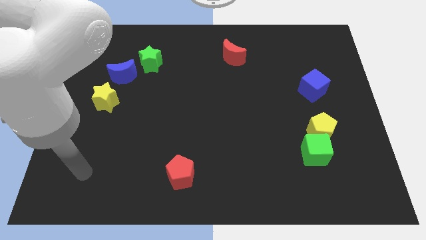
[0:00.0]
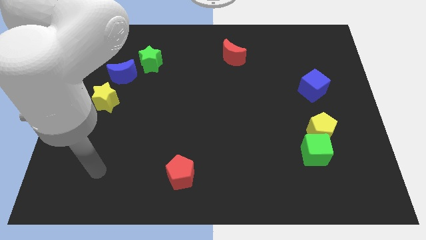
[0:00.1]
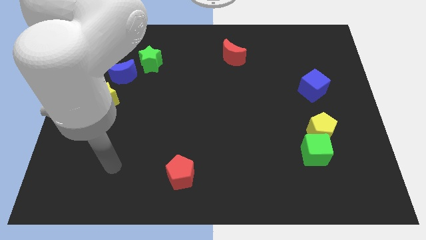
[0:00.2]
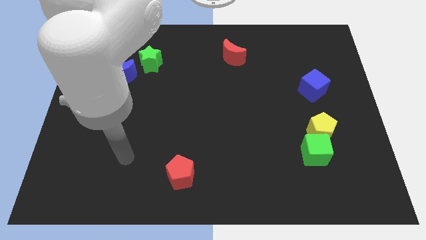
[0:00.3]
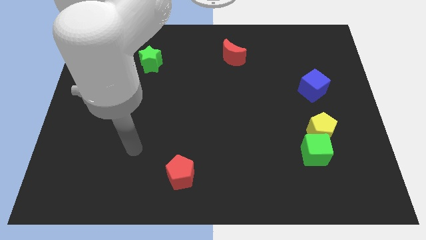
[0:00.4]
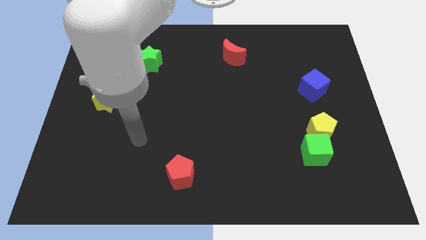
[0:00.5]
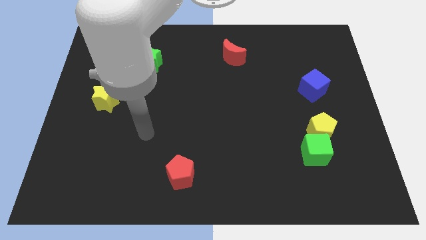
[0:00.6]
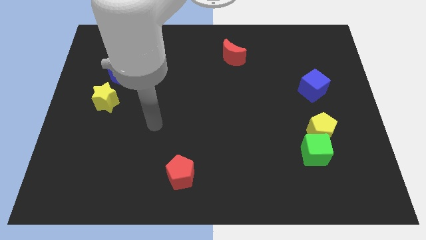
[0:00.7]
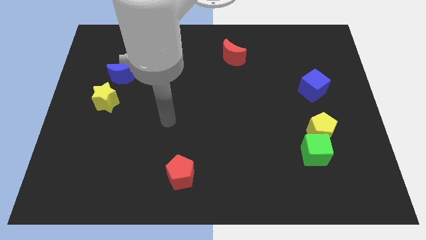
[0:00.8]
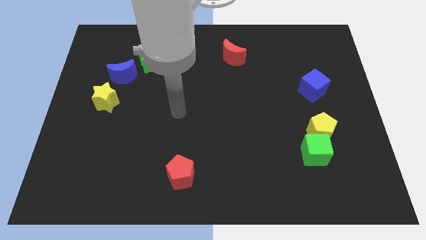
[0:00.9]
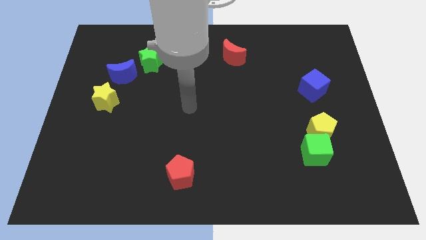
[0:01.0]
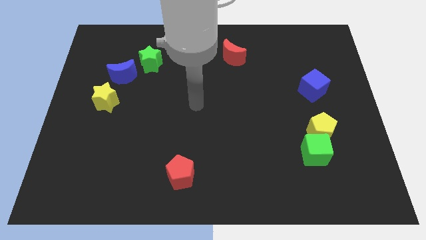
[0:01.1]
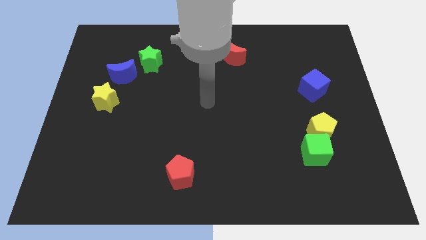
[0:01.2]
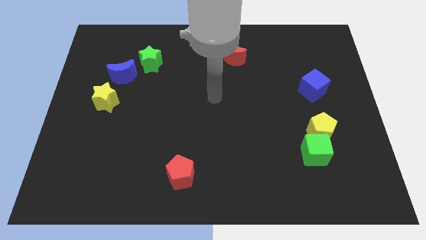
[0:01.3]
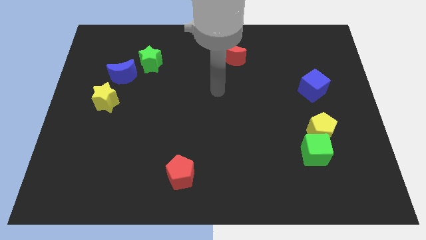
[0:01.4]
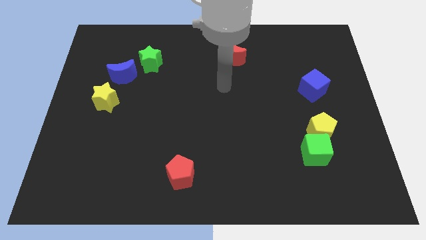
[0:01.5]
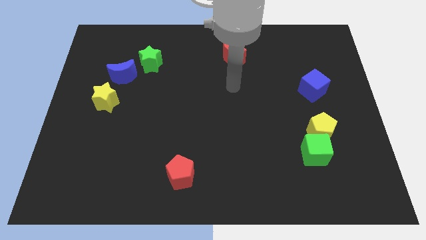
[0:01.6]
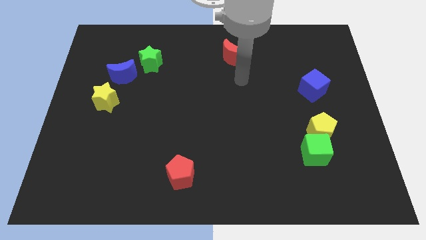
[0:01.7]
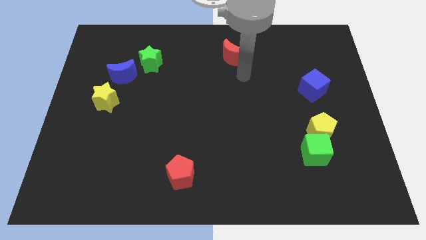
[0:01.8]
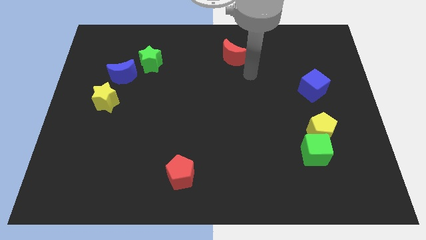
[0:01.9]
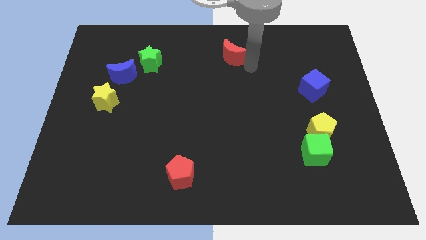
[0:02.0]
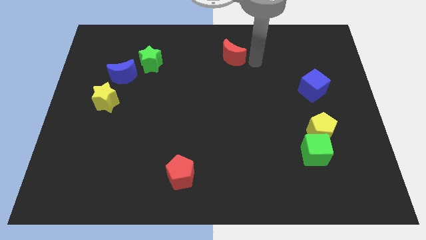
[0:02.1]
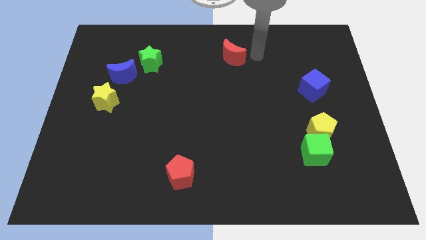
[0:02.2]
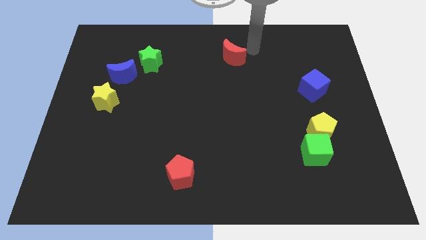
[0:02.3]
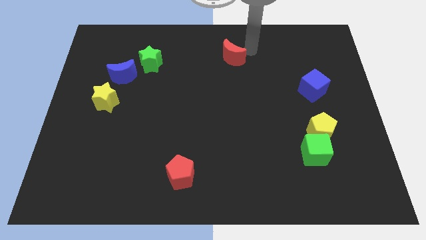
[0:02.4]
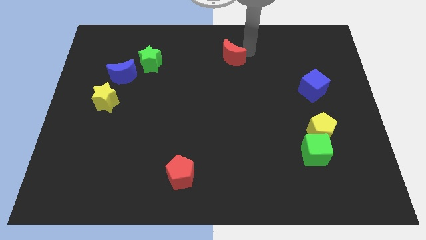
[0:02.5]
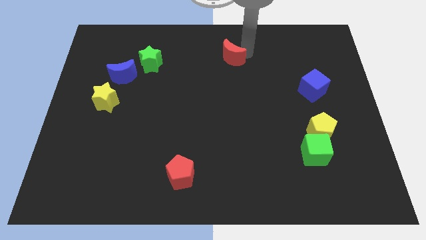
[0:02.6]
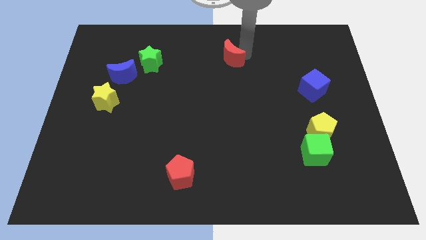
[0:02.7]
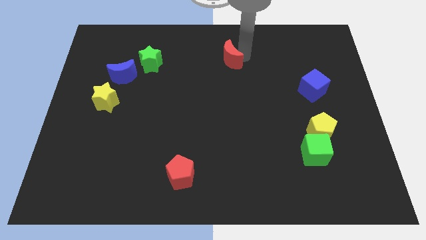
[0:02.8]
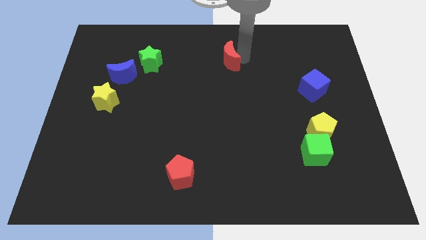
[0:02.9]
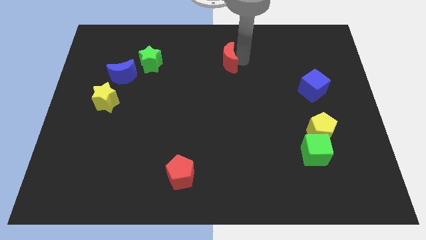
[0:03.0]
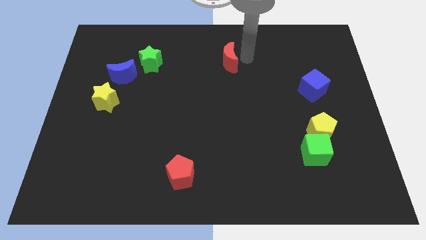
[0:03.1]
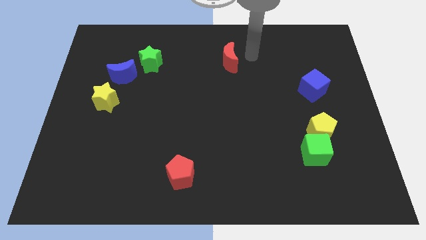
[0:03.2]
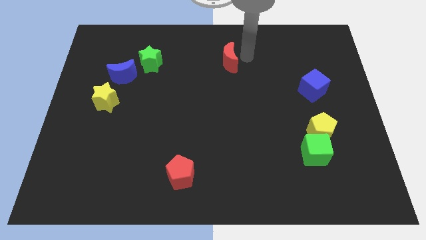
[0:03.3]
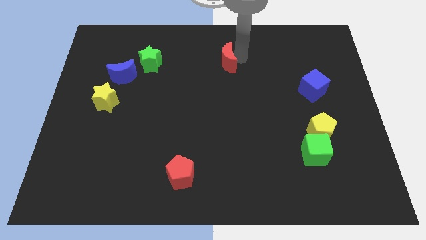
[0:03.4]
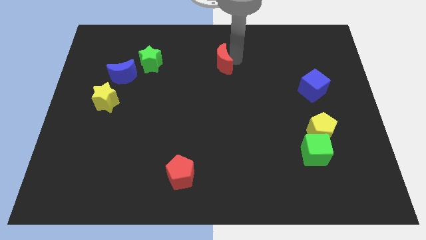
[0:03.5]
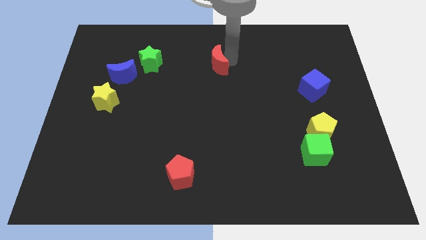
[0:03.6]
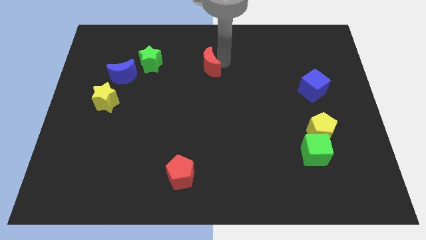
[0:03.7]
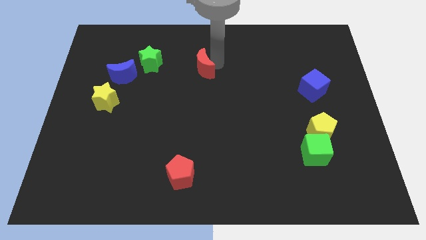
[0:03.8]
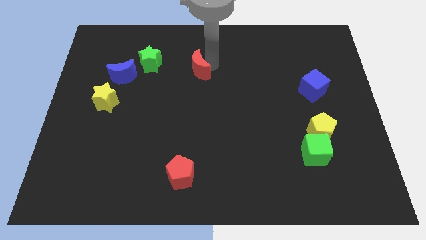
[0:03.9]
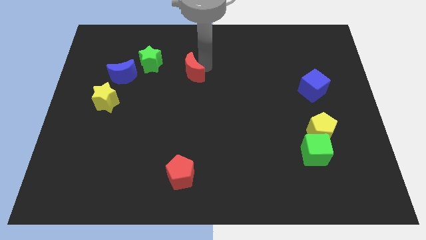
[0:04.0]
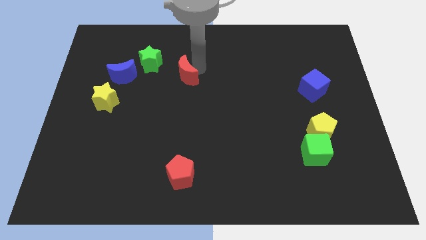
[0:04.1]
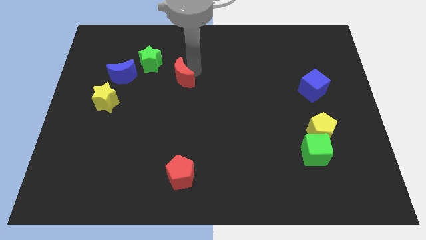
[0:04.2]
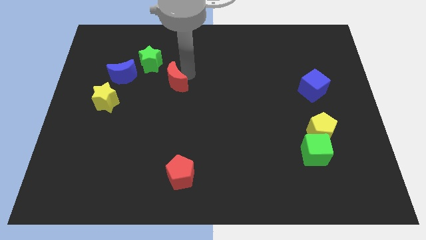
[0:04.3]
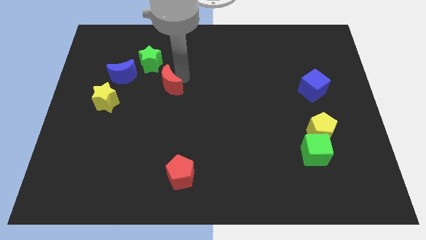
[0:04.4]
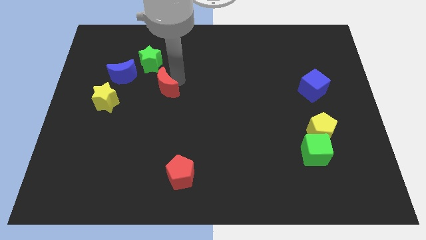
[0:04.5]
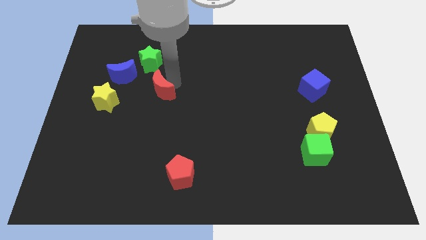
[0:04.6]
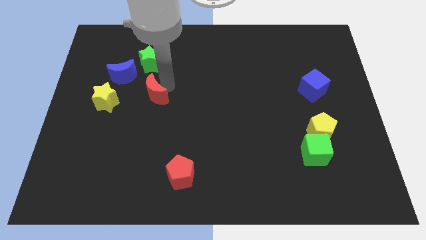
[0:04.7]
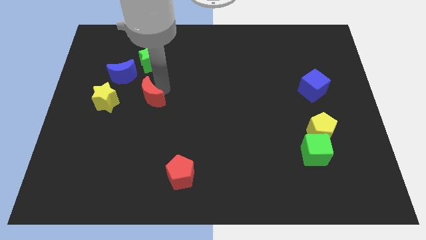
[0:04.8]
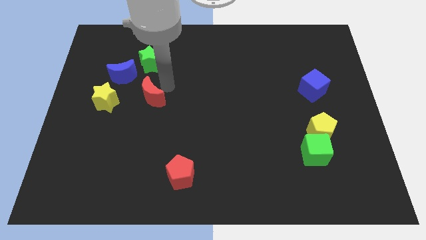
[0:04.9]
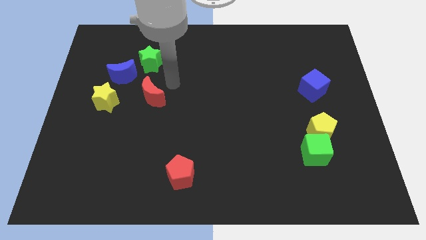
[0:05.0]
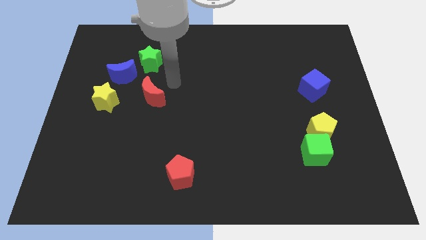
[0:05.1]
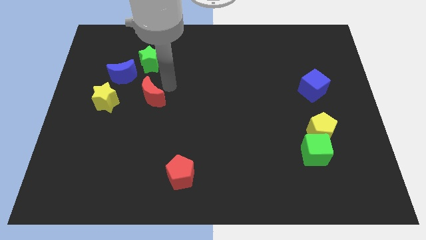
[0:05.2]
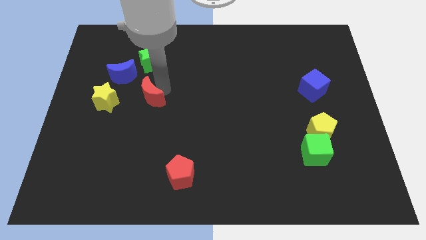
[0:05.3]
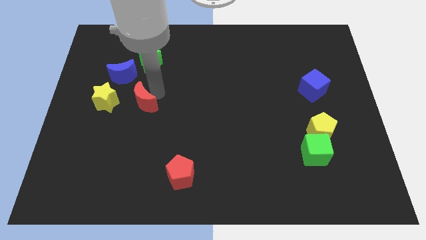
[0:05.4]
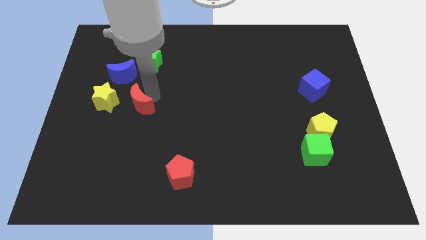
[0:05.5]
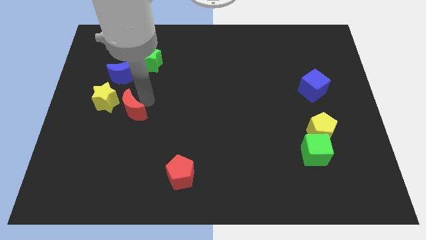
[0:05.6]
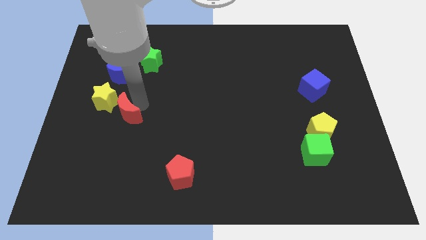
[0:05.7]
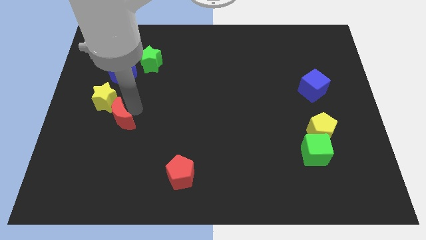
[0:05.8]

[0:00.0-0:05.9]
put the red moon below the yellow star
